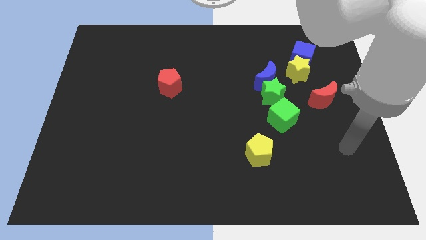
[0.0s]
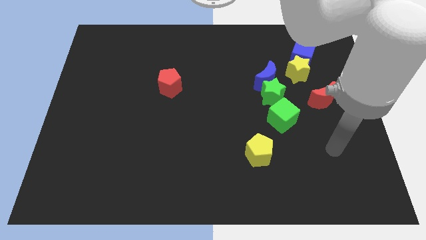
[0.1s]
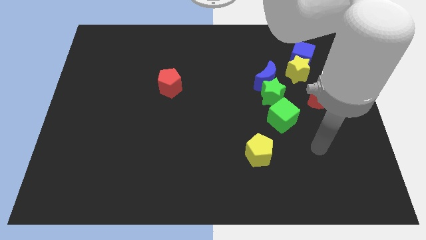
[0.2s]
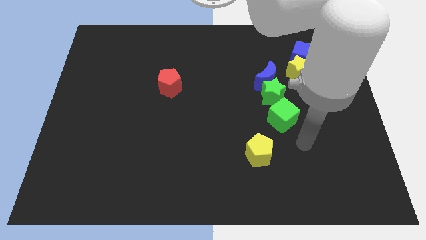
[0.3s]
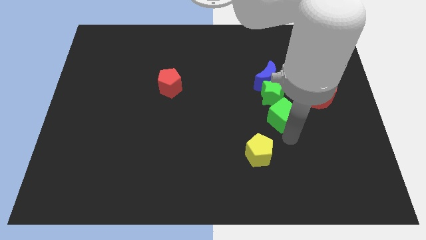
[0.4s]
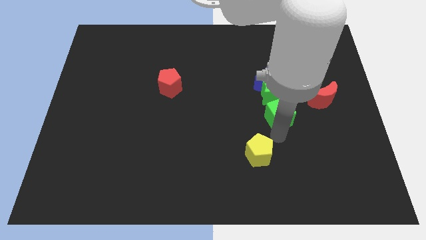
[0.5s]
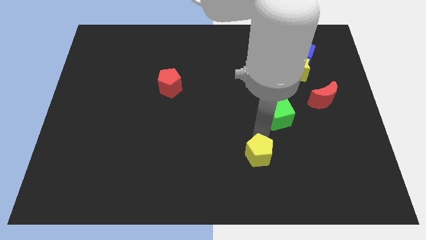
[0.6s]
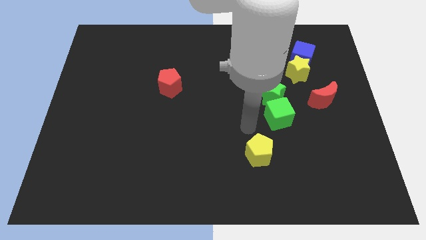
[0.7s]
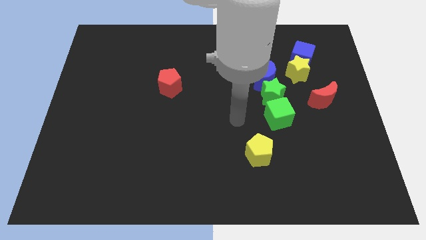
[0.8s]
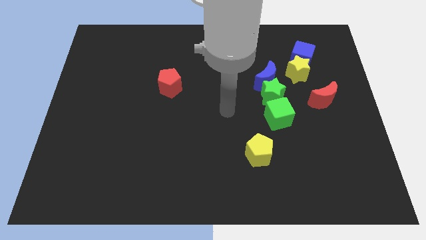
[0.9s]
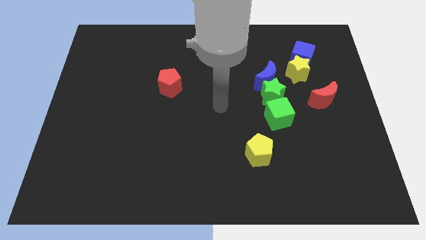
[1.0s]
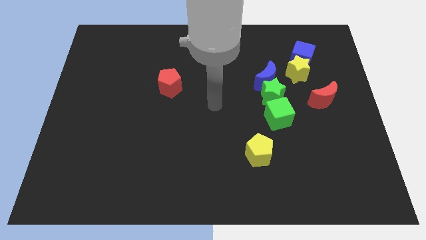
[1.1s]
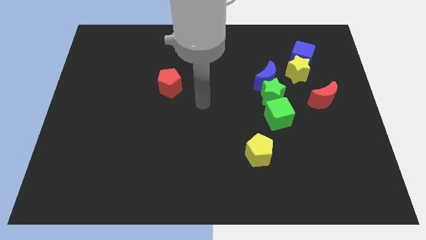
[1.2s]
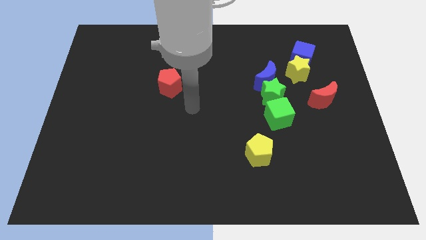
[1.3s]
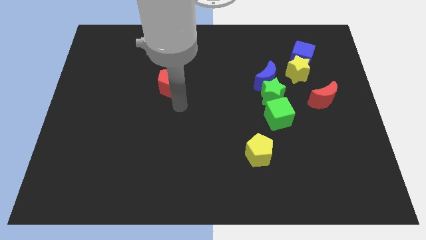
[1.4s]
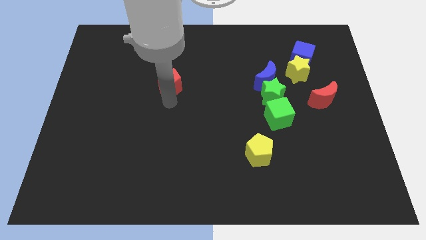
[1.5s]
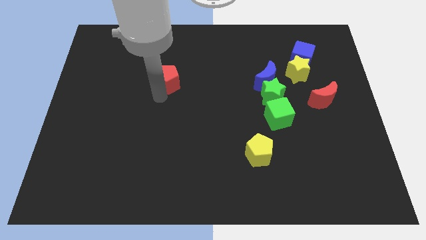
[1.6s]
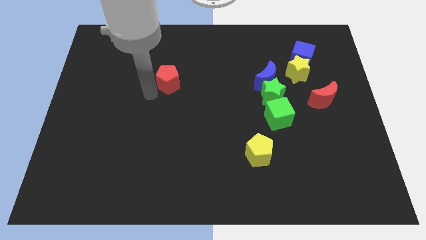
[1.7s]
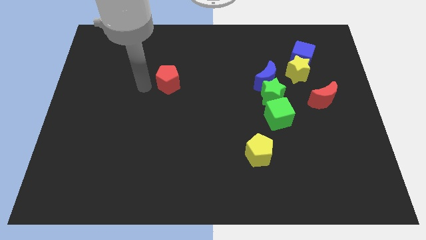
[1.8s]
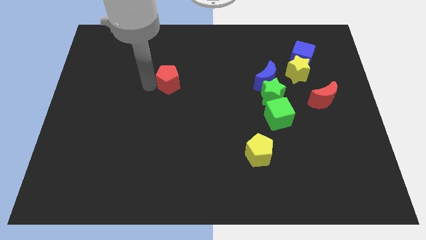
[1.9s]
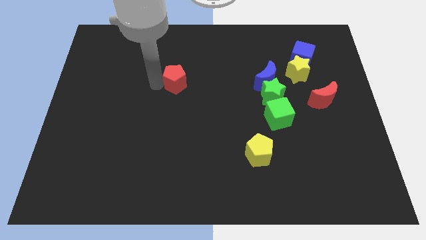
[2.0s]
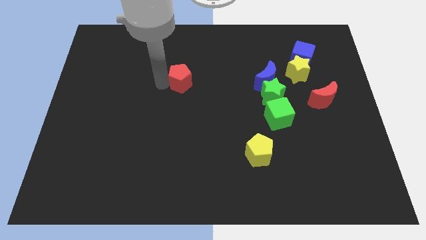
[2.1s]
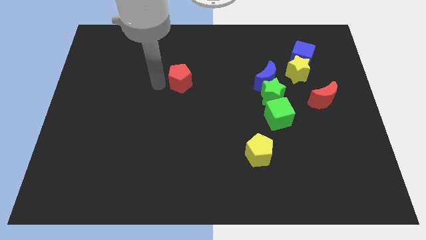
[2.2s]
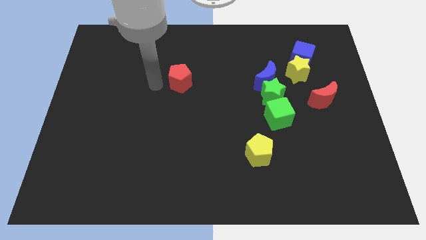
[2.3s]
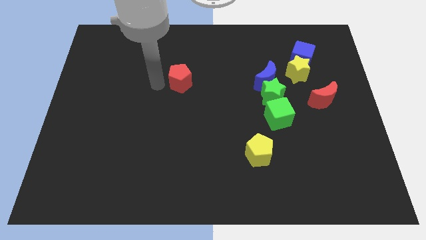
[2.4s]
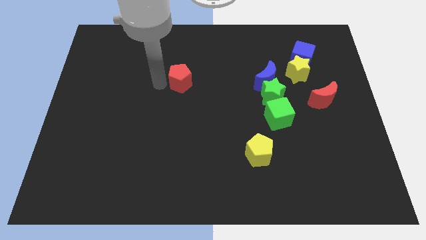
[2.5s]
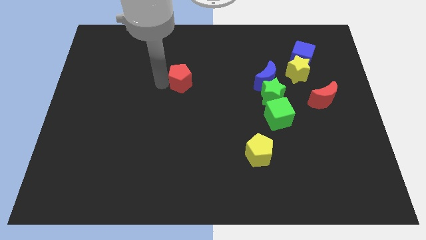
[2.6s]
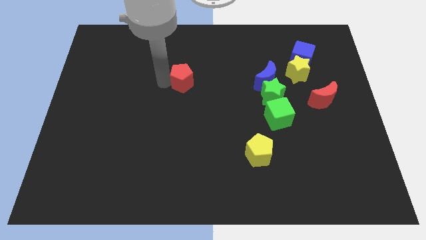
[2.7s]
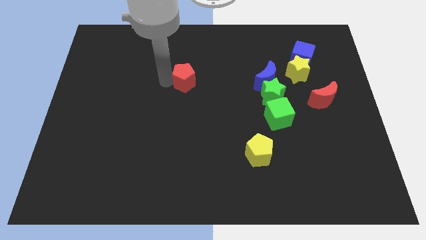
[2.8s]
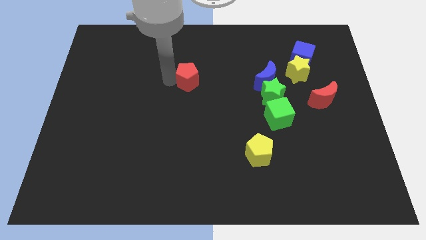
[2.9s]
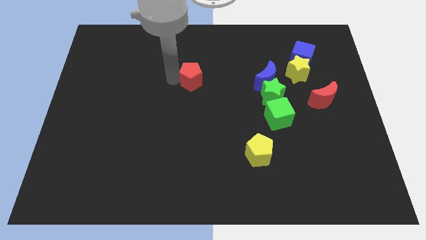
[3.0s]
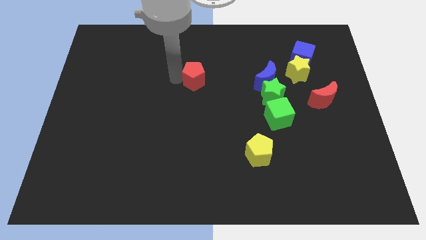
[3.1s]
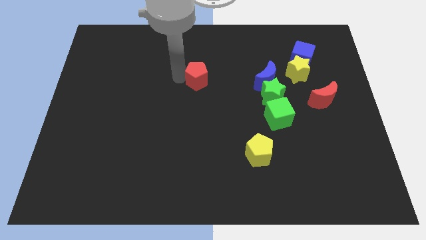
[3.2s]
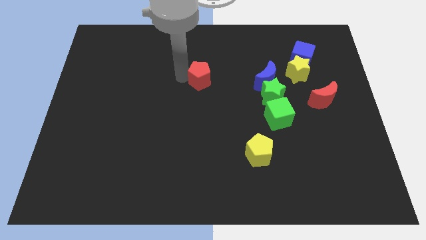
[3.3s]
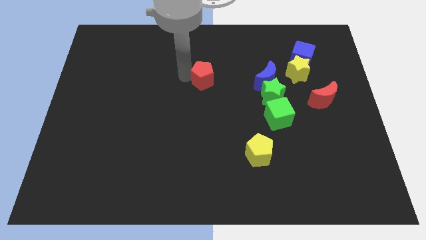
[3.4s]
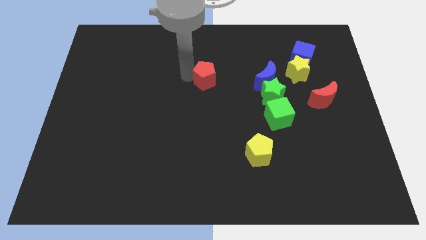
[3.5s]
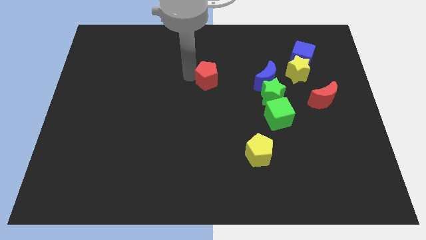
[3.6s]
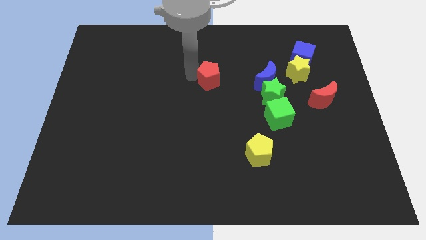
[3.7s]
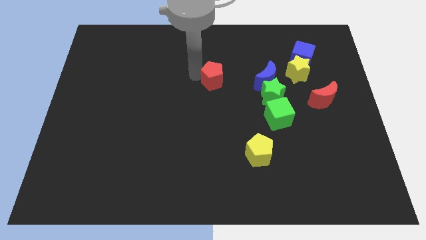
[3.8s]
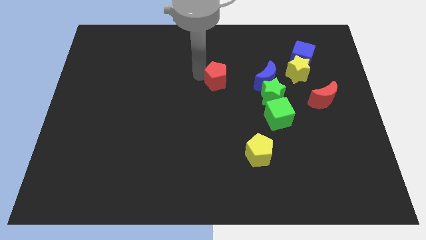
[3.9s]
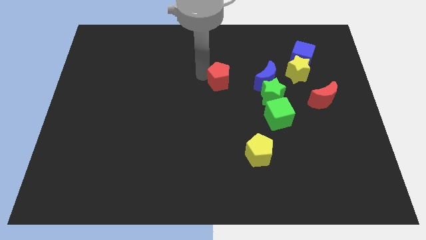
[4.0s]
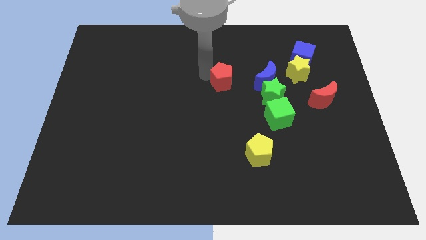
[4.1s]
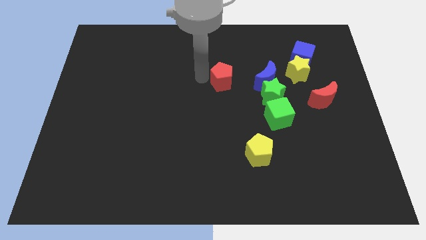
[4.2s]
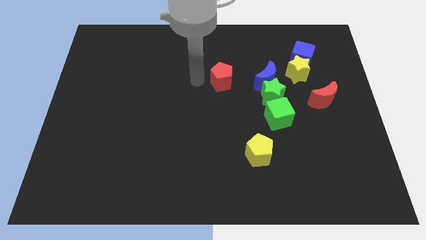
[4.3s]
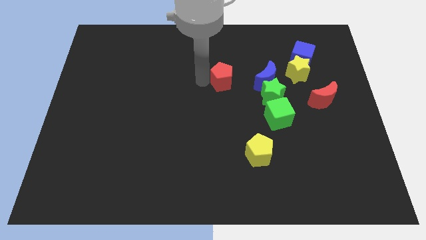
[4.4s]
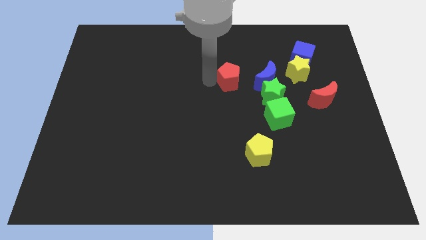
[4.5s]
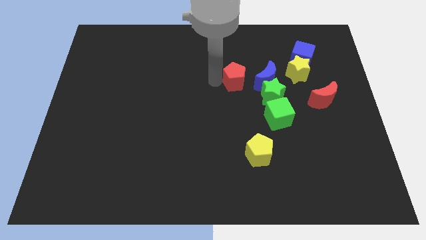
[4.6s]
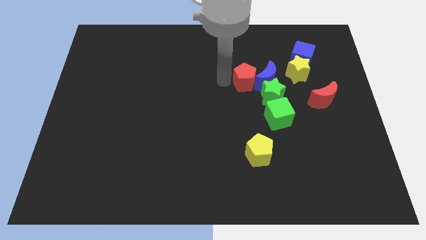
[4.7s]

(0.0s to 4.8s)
slide the red pentagon next to the blue moon

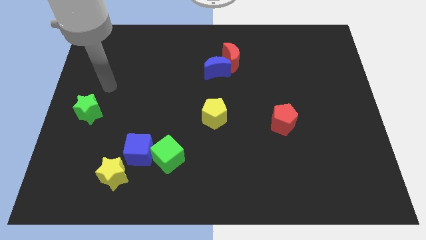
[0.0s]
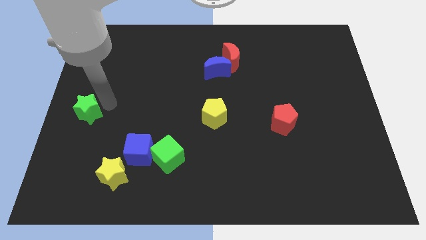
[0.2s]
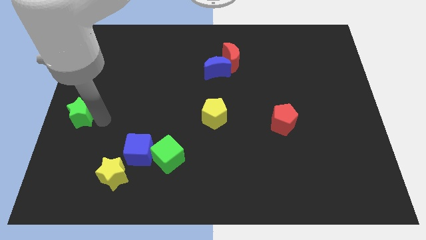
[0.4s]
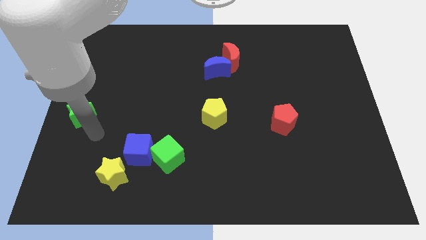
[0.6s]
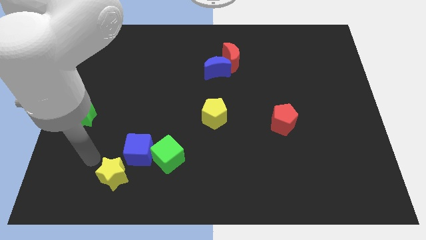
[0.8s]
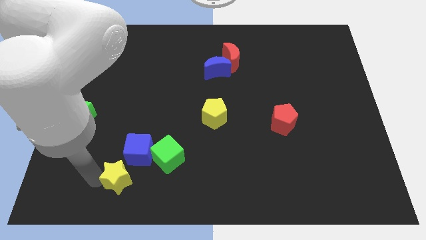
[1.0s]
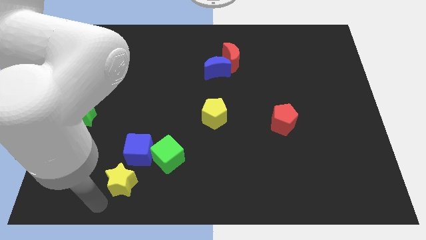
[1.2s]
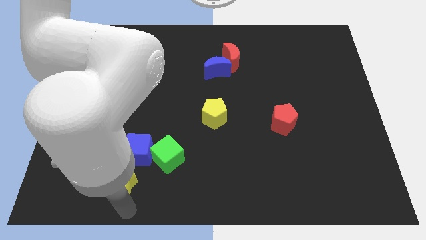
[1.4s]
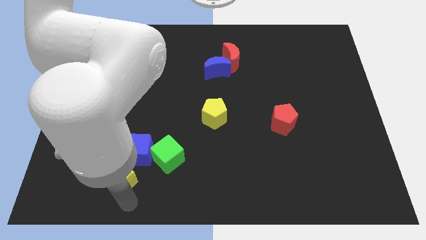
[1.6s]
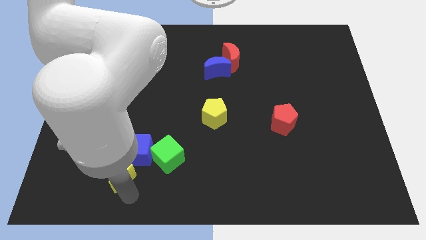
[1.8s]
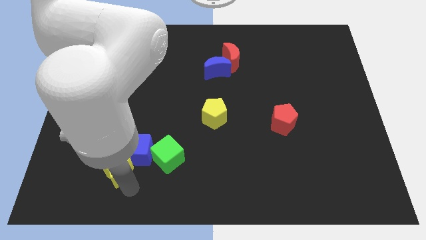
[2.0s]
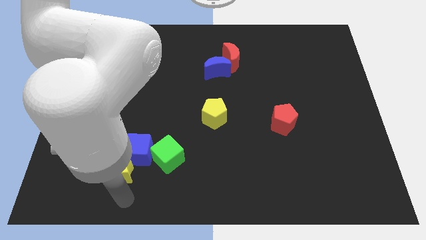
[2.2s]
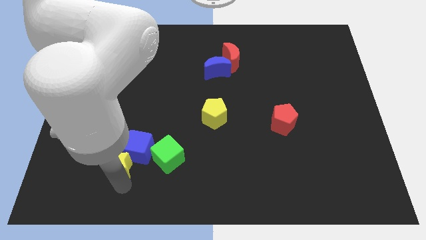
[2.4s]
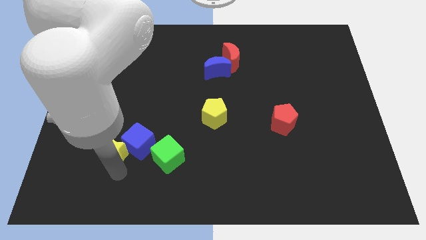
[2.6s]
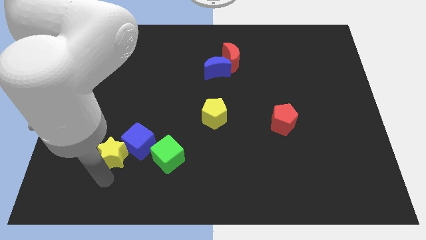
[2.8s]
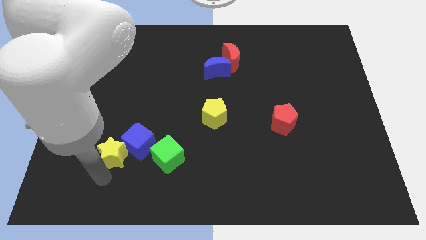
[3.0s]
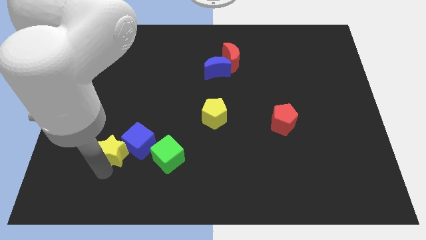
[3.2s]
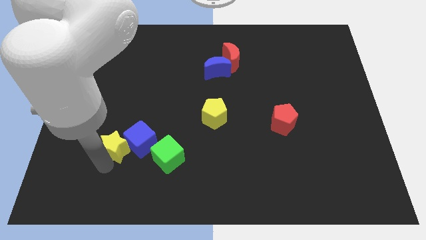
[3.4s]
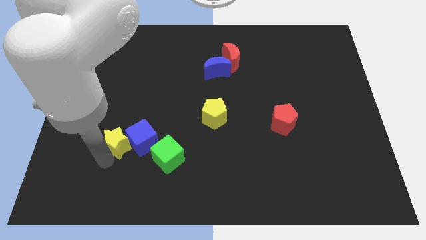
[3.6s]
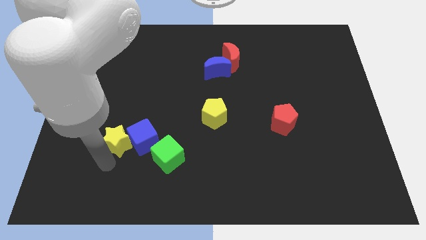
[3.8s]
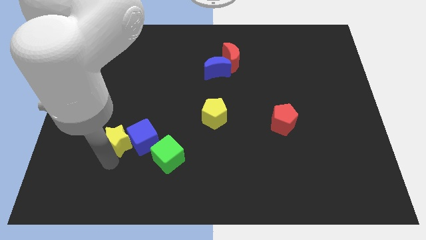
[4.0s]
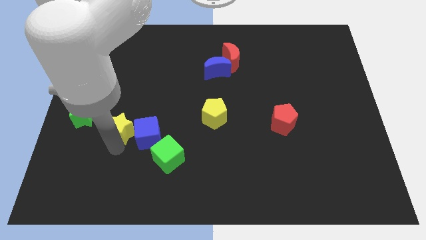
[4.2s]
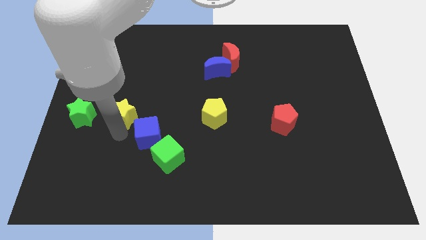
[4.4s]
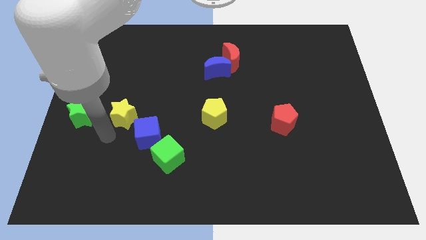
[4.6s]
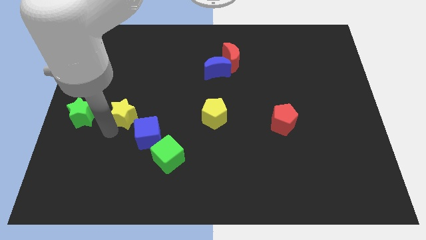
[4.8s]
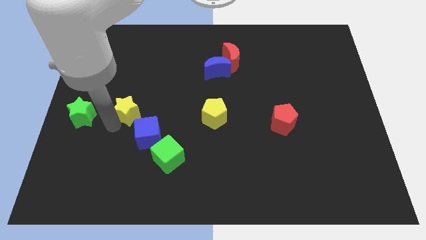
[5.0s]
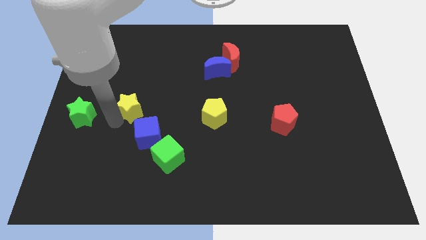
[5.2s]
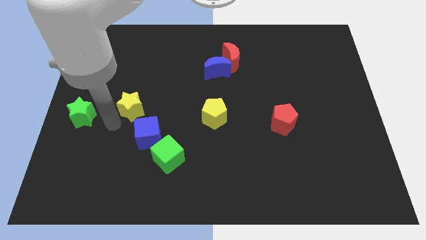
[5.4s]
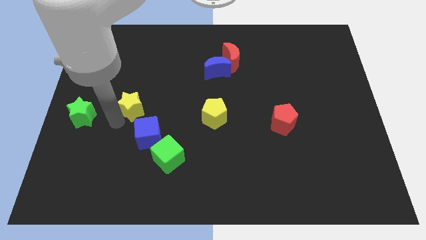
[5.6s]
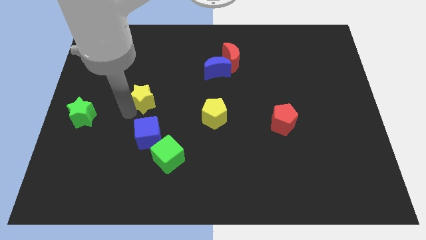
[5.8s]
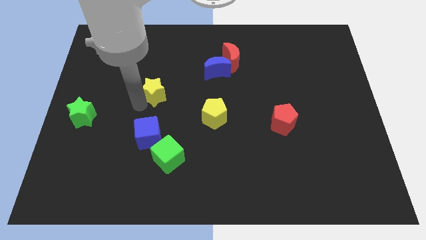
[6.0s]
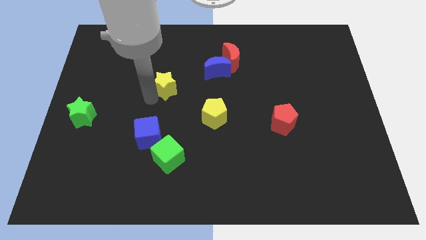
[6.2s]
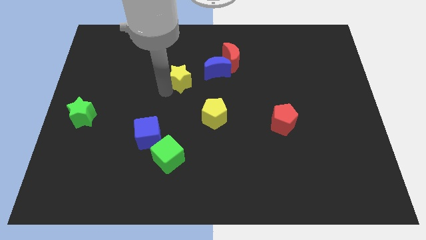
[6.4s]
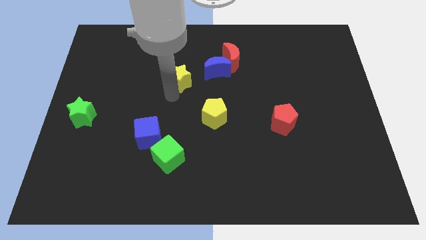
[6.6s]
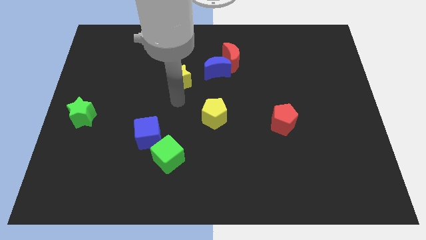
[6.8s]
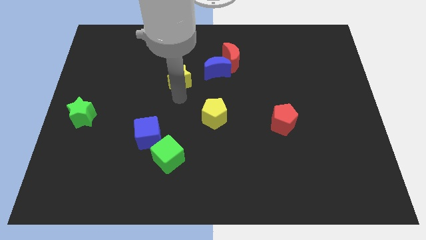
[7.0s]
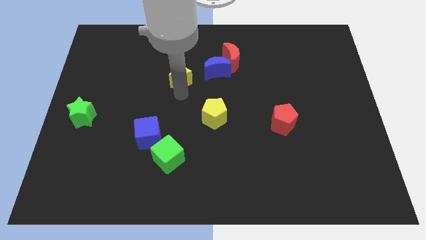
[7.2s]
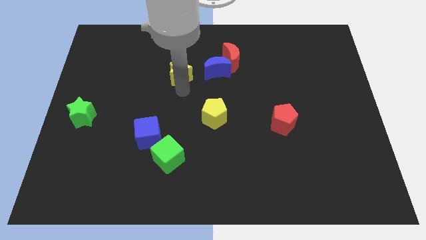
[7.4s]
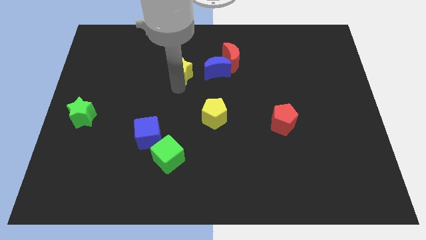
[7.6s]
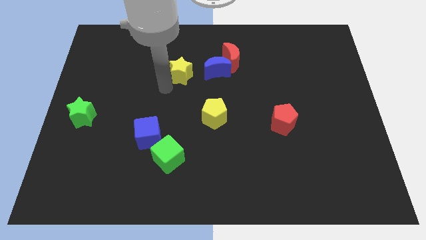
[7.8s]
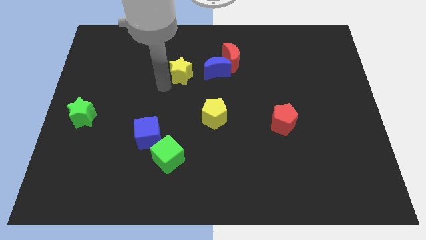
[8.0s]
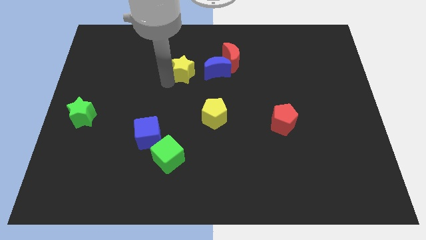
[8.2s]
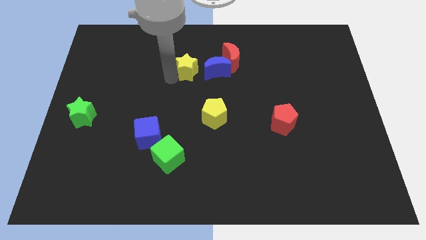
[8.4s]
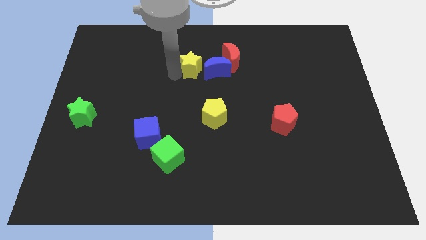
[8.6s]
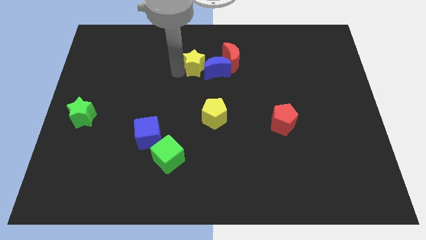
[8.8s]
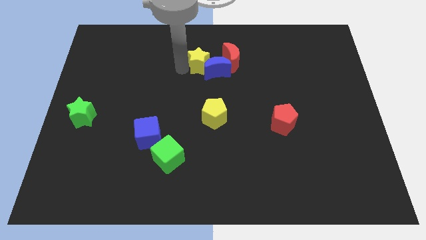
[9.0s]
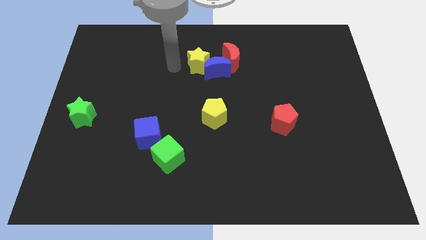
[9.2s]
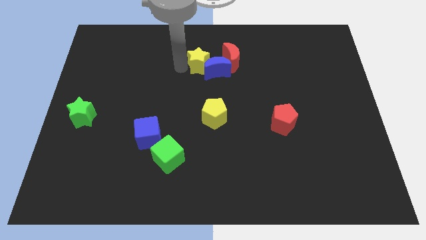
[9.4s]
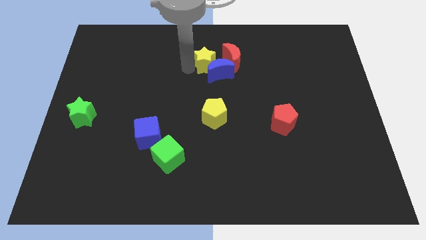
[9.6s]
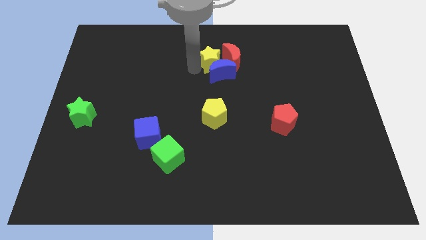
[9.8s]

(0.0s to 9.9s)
push the yellow star towards the red moon
